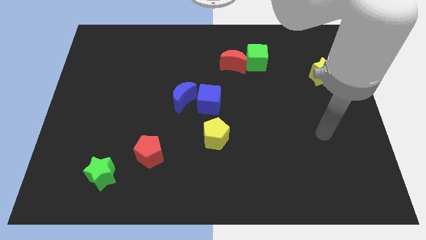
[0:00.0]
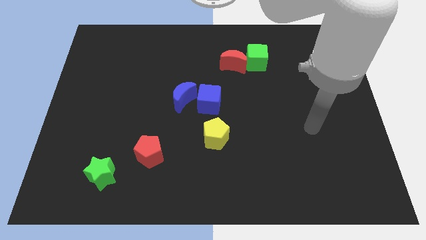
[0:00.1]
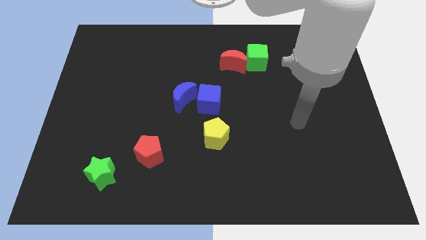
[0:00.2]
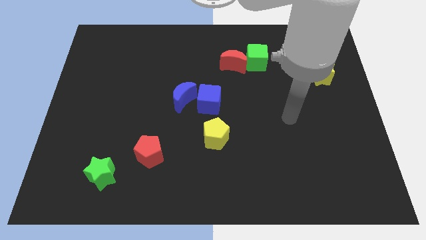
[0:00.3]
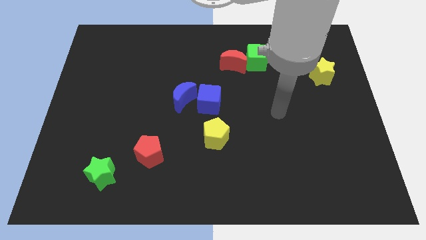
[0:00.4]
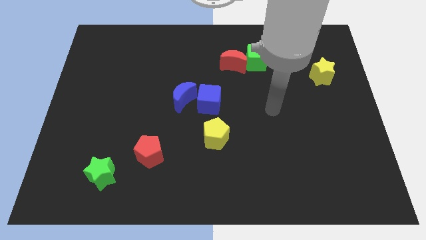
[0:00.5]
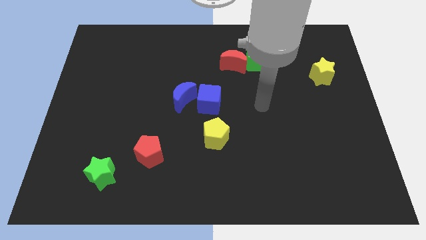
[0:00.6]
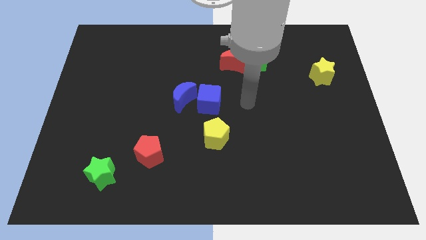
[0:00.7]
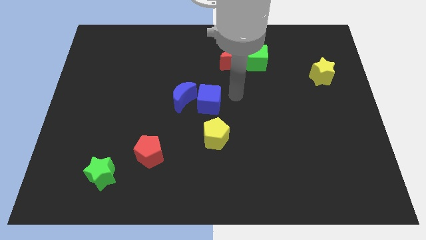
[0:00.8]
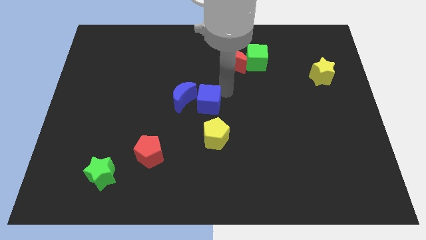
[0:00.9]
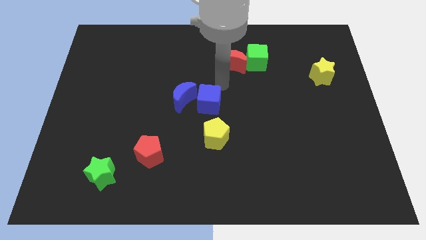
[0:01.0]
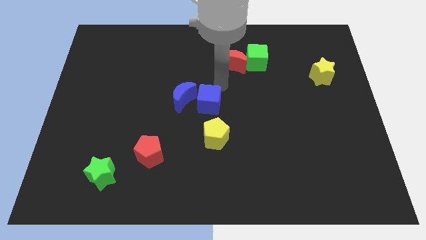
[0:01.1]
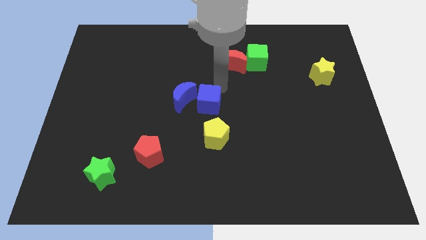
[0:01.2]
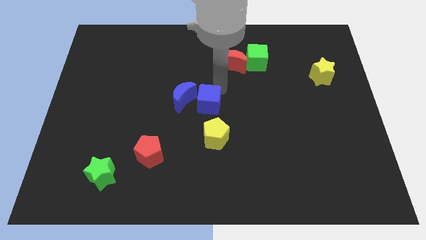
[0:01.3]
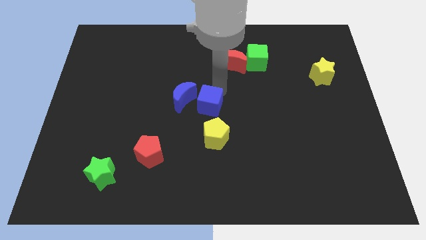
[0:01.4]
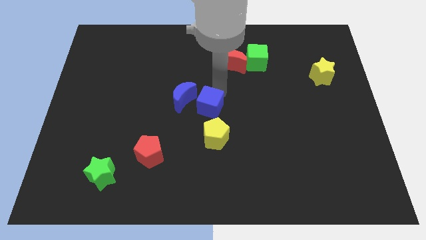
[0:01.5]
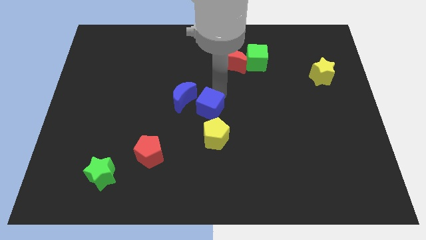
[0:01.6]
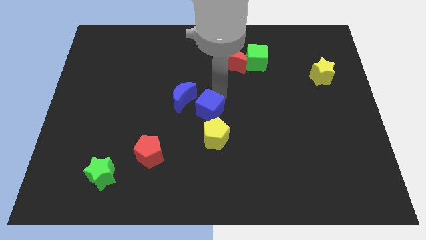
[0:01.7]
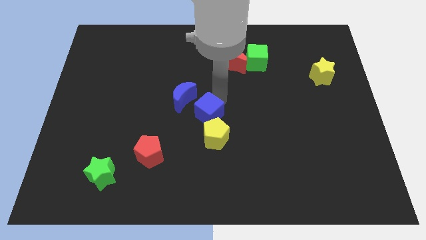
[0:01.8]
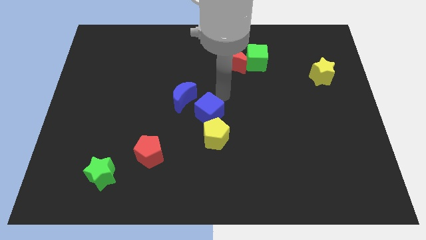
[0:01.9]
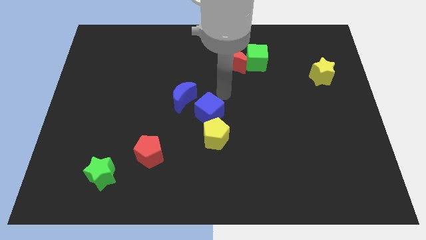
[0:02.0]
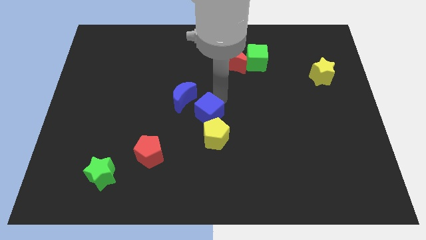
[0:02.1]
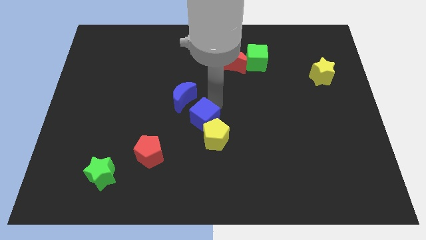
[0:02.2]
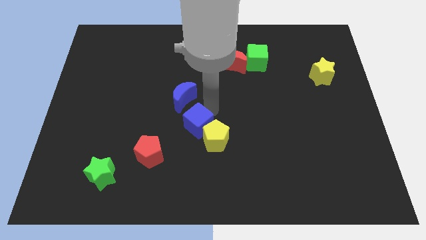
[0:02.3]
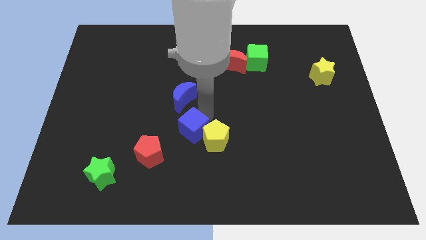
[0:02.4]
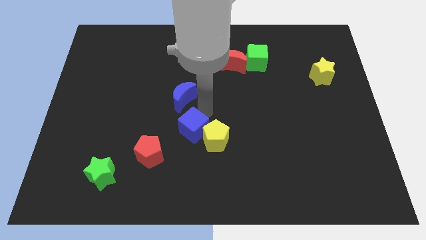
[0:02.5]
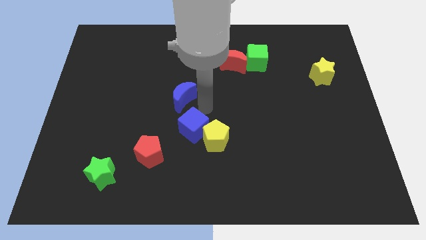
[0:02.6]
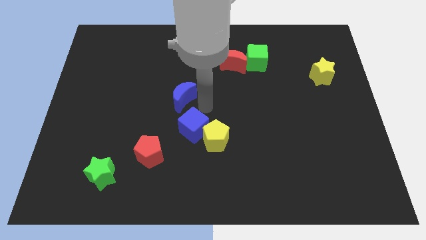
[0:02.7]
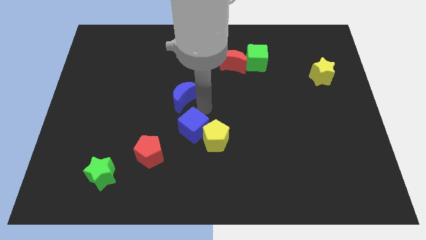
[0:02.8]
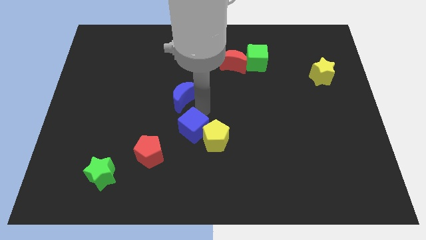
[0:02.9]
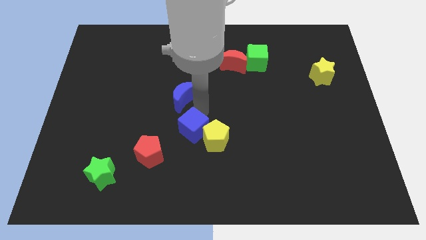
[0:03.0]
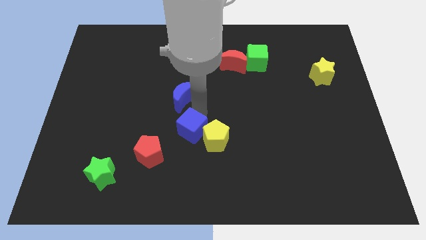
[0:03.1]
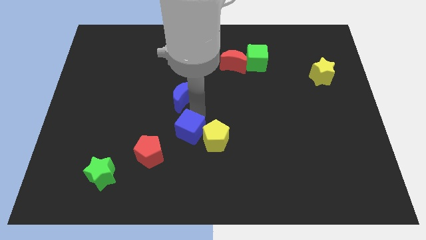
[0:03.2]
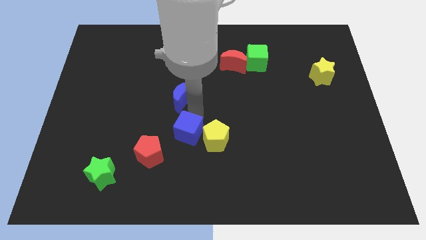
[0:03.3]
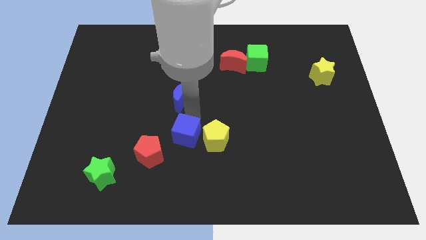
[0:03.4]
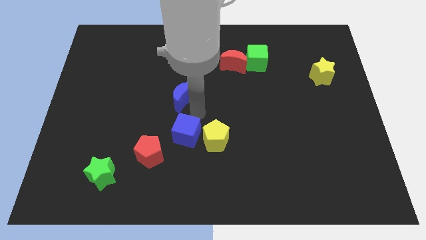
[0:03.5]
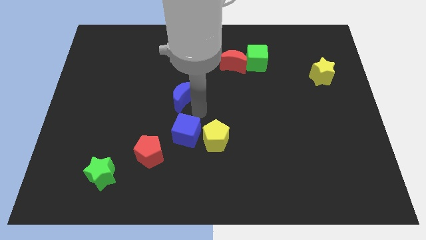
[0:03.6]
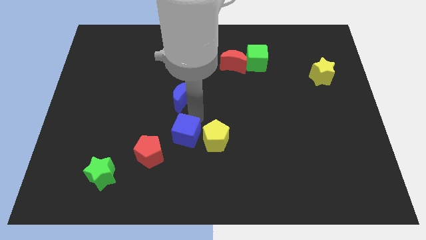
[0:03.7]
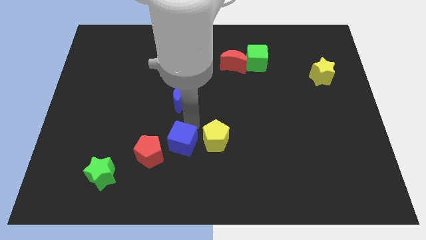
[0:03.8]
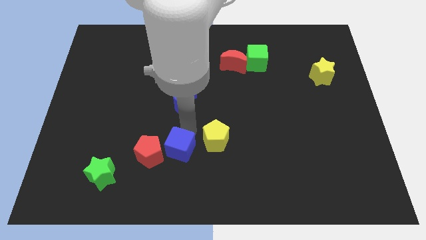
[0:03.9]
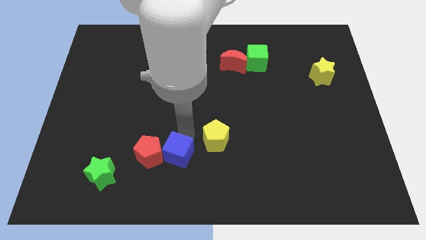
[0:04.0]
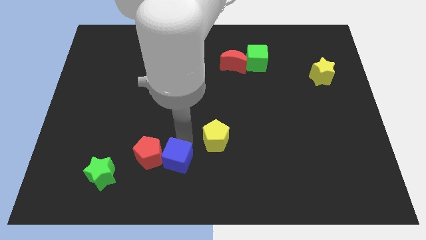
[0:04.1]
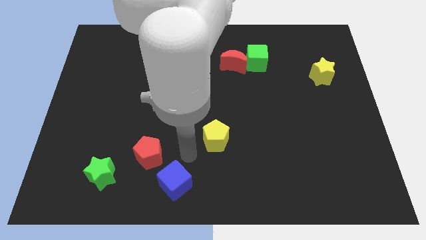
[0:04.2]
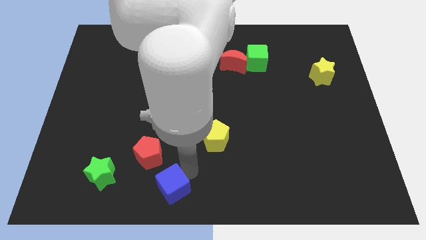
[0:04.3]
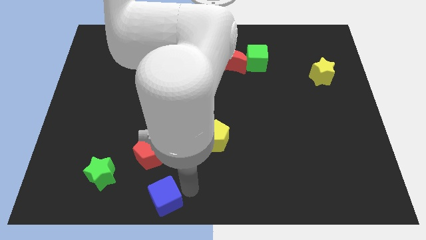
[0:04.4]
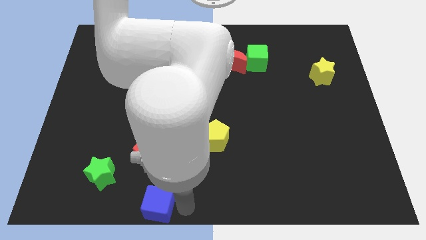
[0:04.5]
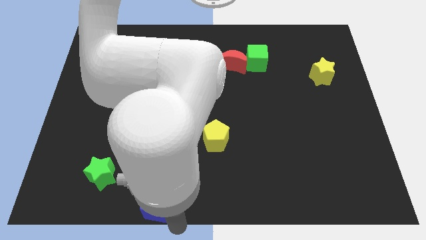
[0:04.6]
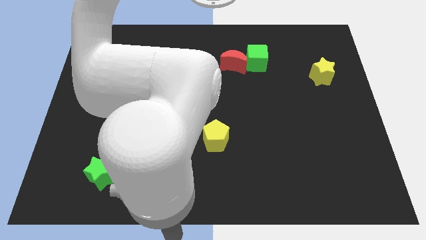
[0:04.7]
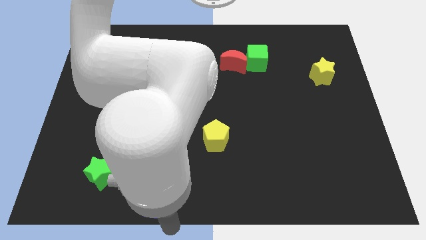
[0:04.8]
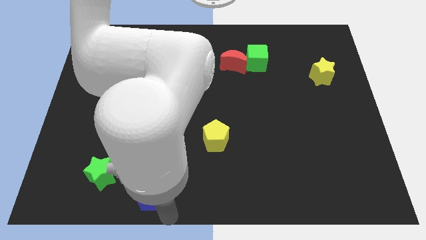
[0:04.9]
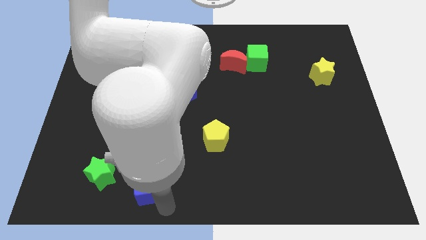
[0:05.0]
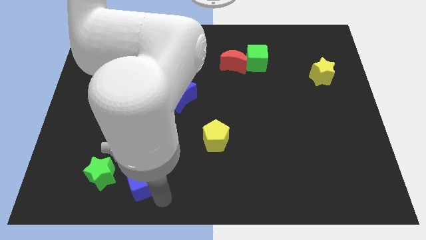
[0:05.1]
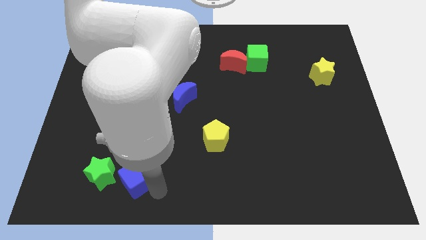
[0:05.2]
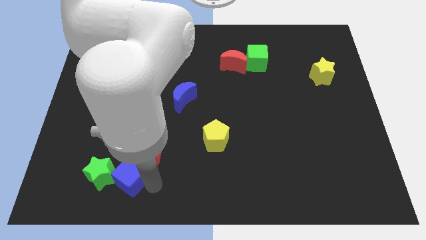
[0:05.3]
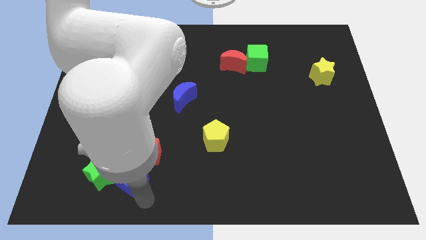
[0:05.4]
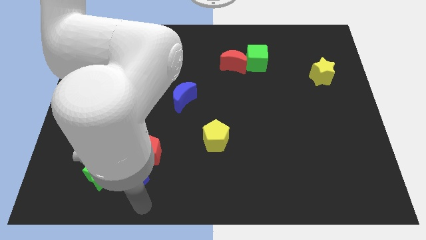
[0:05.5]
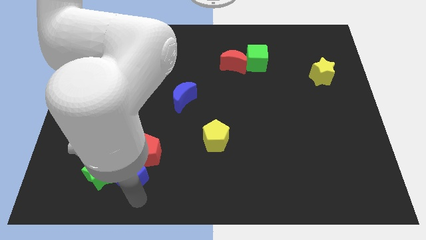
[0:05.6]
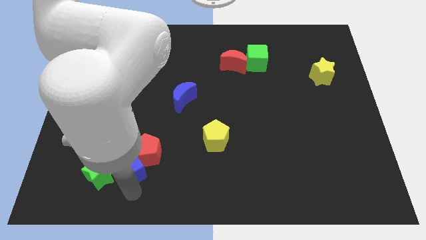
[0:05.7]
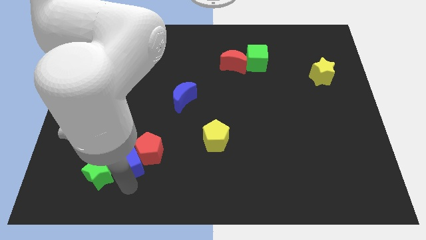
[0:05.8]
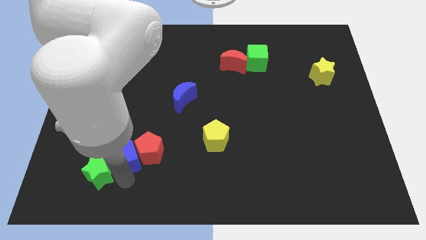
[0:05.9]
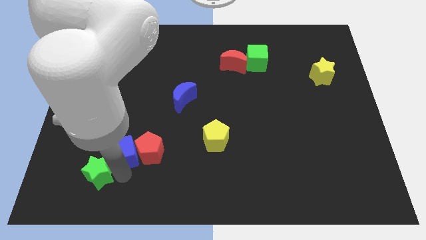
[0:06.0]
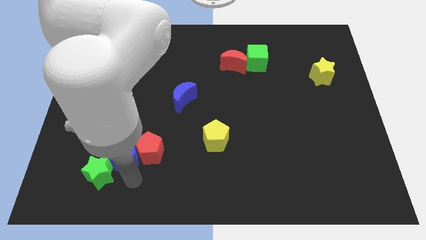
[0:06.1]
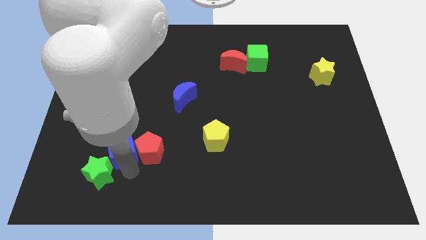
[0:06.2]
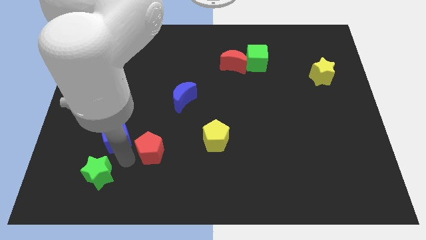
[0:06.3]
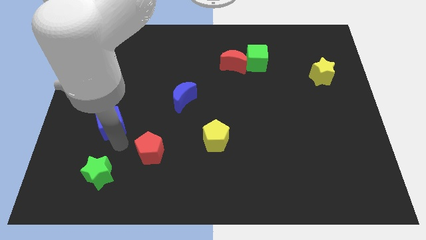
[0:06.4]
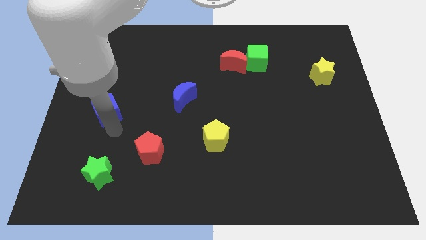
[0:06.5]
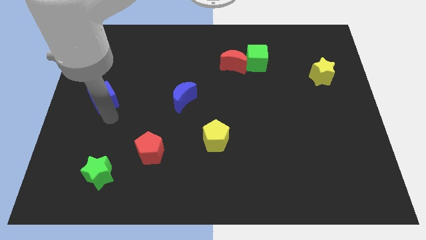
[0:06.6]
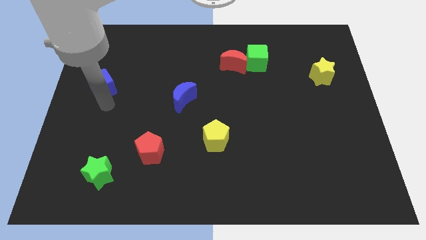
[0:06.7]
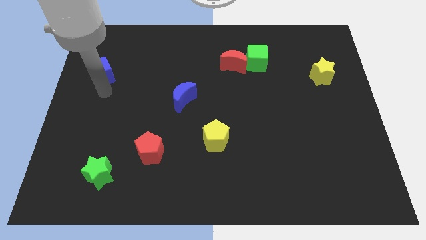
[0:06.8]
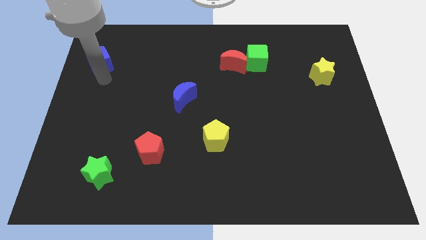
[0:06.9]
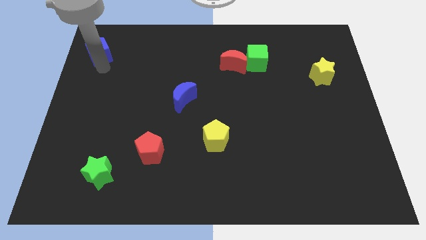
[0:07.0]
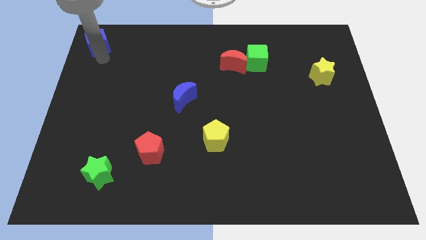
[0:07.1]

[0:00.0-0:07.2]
move the blue cube to the top left
